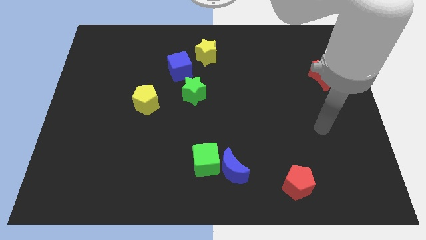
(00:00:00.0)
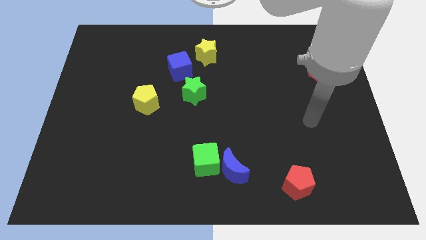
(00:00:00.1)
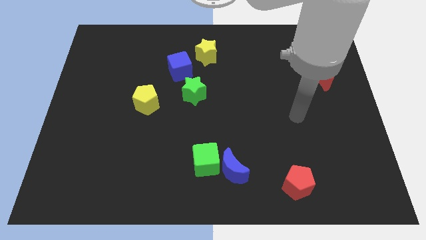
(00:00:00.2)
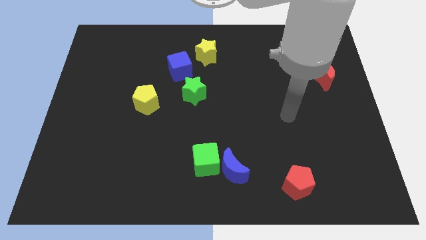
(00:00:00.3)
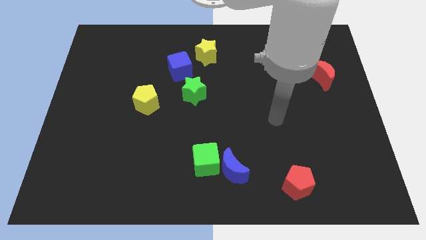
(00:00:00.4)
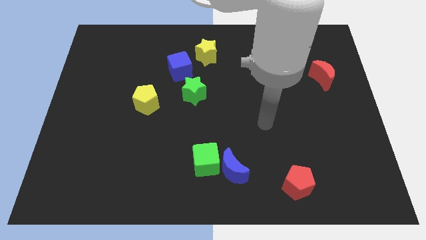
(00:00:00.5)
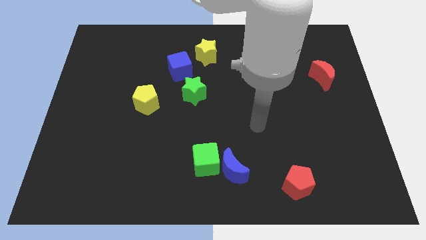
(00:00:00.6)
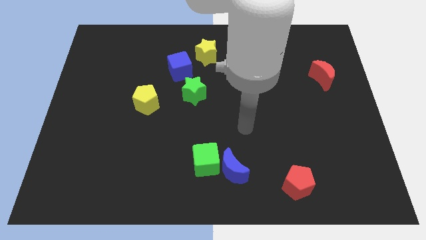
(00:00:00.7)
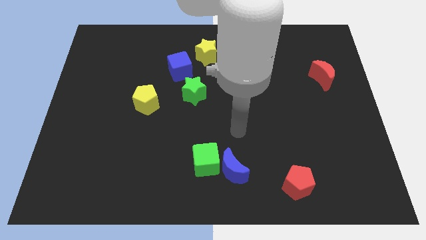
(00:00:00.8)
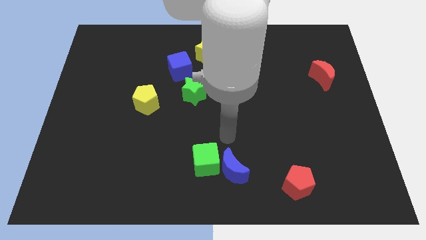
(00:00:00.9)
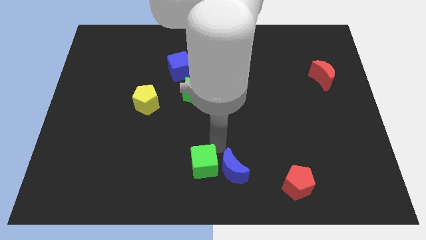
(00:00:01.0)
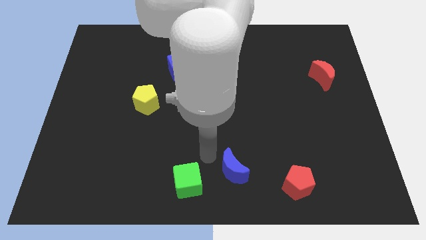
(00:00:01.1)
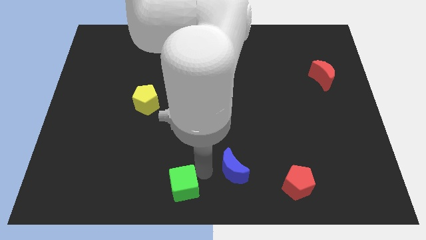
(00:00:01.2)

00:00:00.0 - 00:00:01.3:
separate the blue moon from the green cube

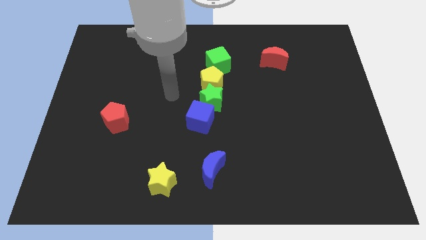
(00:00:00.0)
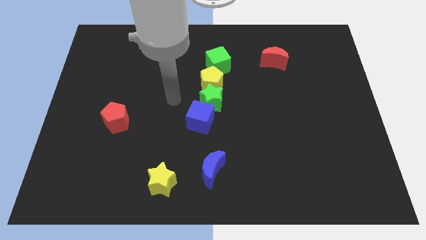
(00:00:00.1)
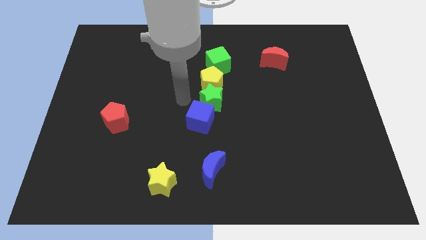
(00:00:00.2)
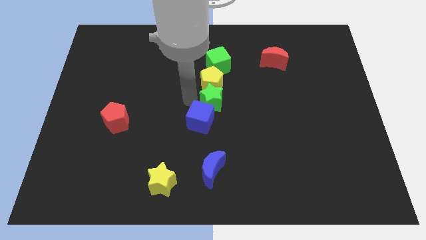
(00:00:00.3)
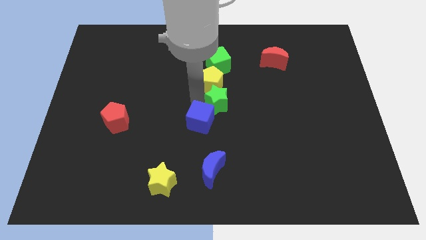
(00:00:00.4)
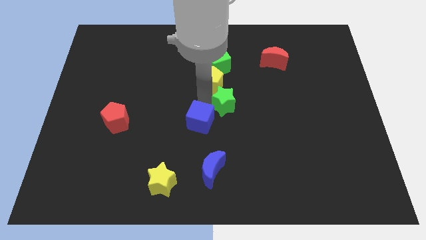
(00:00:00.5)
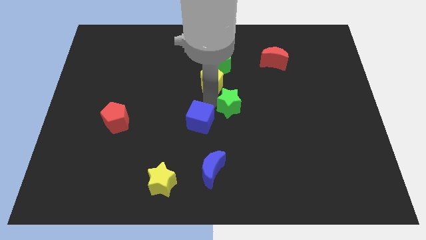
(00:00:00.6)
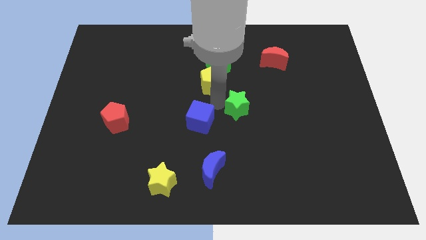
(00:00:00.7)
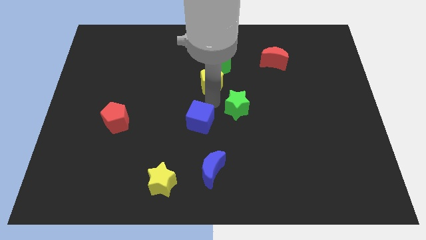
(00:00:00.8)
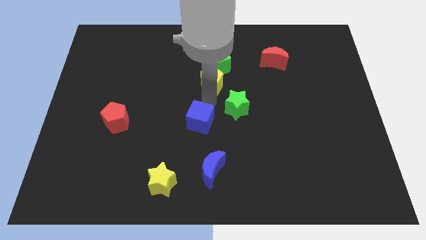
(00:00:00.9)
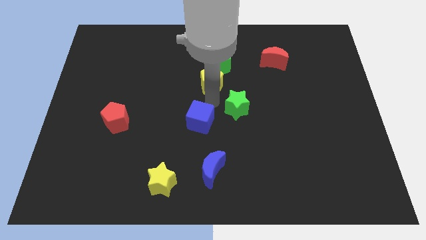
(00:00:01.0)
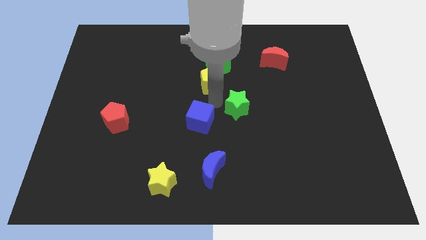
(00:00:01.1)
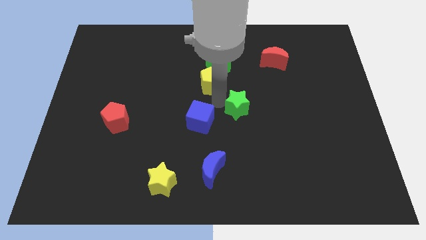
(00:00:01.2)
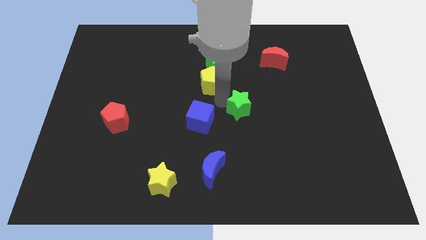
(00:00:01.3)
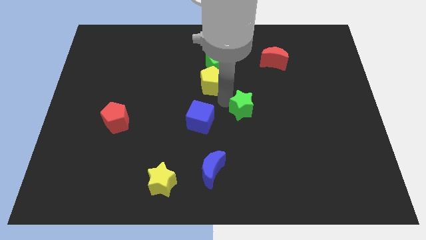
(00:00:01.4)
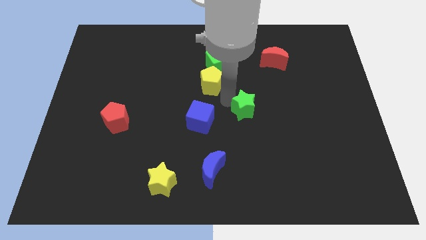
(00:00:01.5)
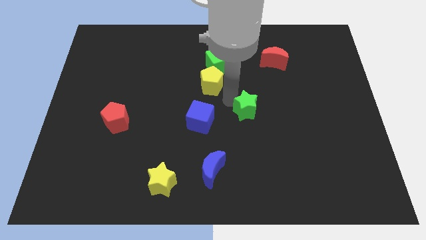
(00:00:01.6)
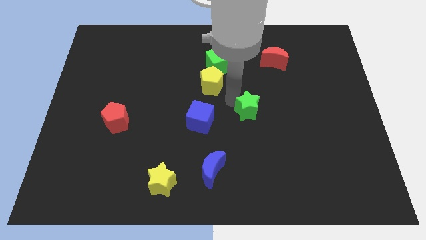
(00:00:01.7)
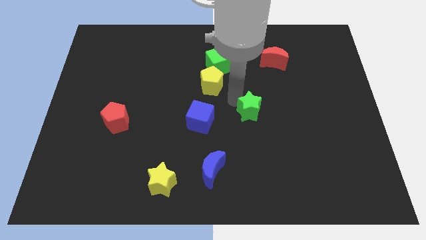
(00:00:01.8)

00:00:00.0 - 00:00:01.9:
pull the green star apart from the yellow pentagon and blue cube

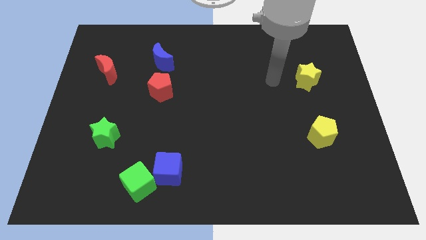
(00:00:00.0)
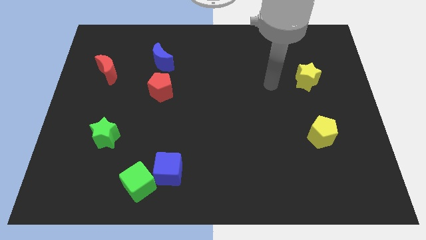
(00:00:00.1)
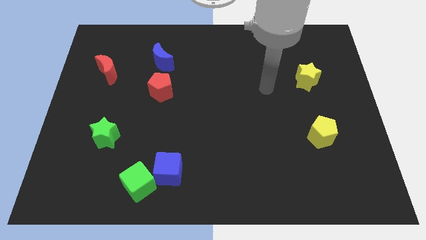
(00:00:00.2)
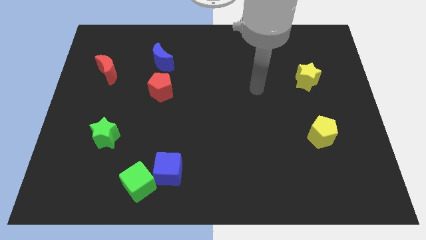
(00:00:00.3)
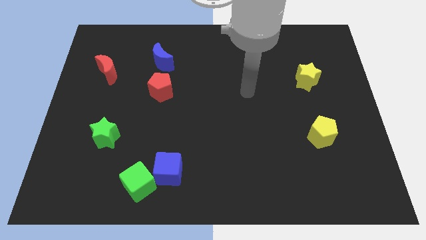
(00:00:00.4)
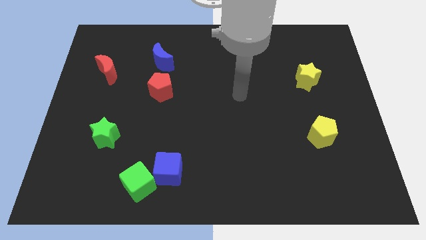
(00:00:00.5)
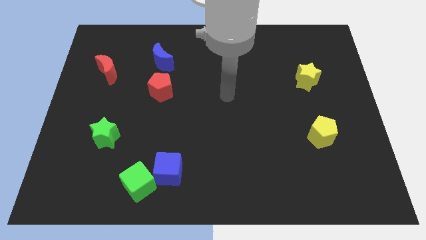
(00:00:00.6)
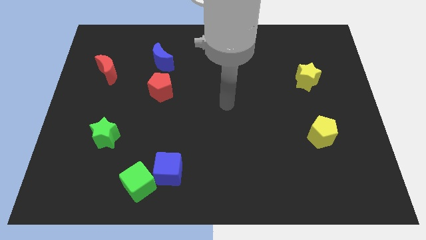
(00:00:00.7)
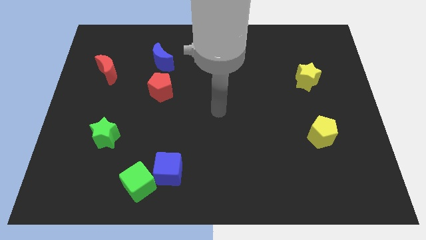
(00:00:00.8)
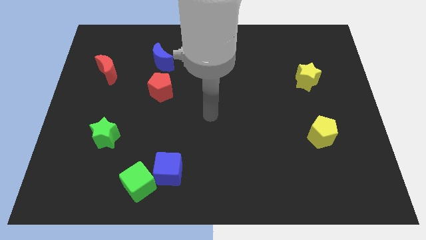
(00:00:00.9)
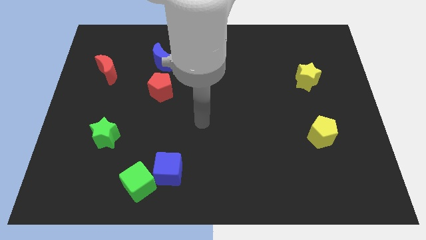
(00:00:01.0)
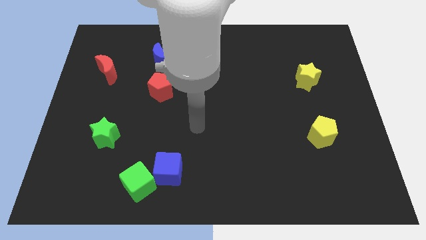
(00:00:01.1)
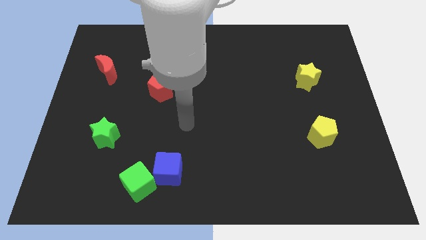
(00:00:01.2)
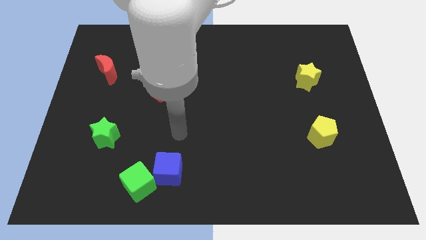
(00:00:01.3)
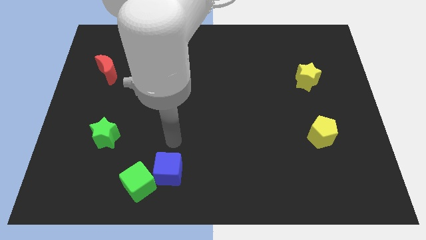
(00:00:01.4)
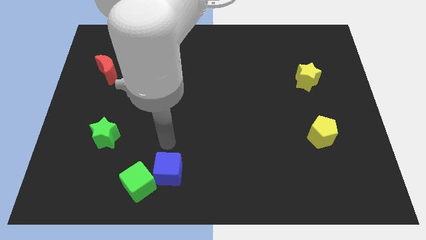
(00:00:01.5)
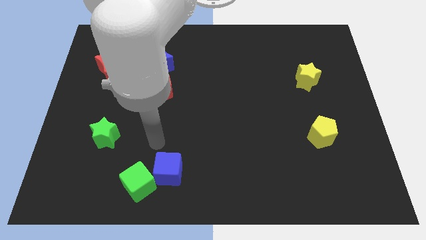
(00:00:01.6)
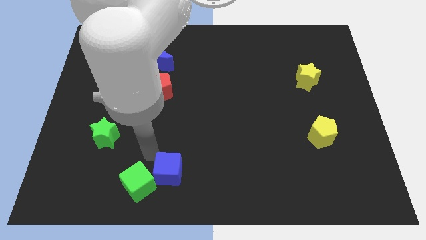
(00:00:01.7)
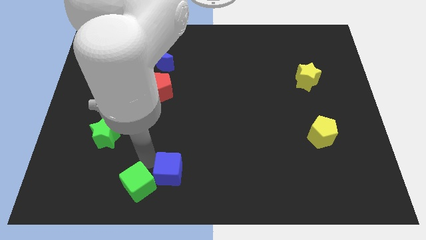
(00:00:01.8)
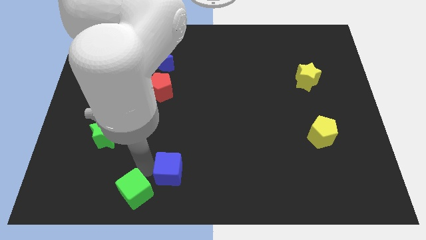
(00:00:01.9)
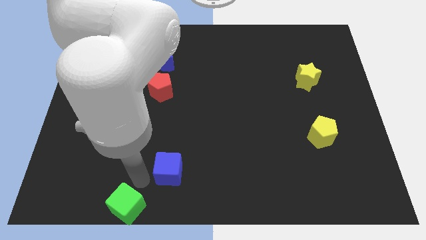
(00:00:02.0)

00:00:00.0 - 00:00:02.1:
pull the blue cube apart from the green cube

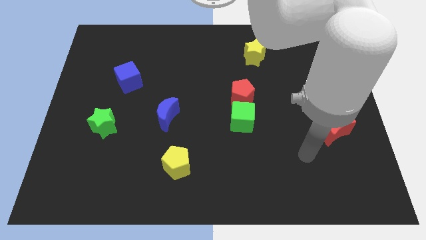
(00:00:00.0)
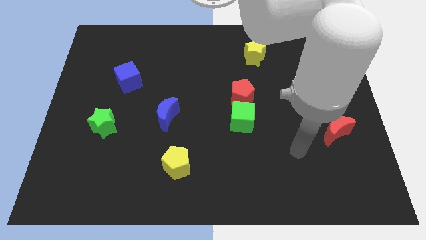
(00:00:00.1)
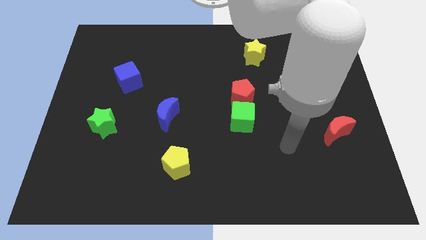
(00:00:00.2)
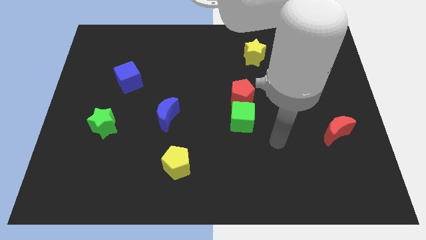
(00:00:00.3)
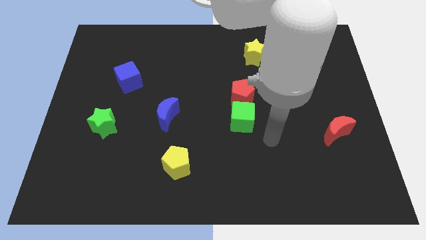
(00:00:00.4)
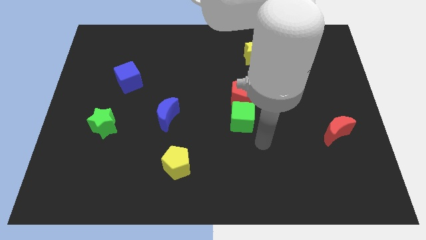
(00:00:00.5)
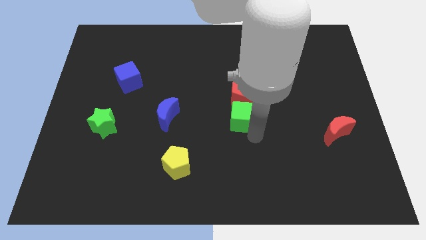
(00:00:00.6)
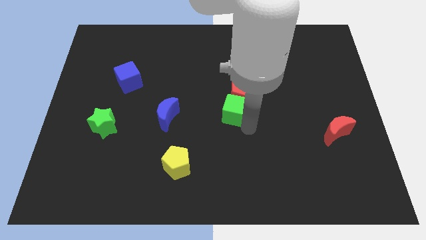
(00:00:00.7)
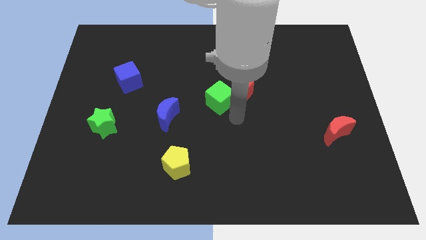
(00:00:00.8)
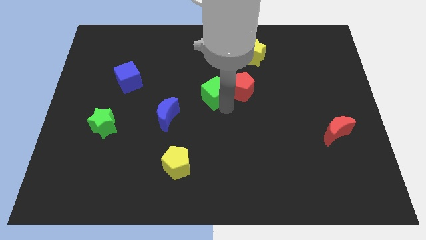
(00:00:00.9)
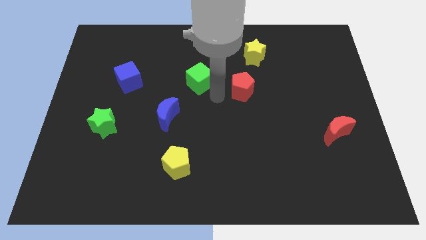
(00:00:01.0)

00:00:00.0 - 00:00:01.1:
move the red pentagon away from the green cube

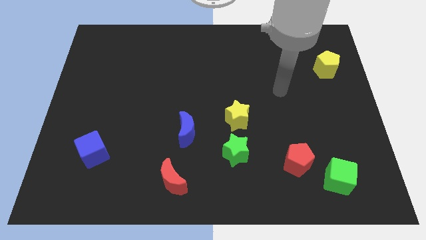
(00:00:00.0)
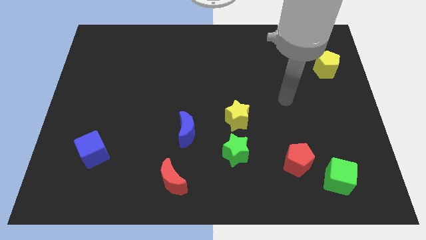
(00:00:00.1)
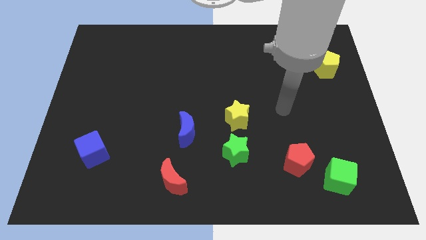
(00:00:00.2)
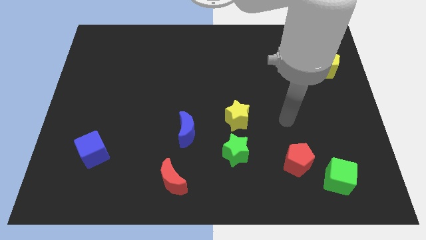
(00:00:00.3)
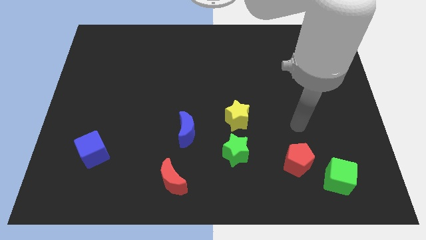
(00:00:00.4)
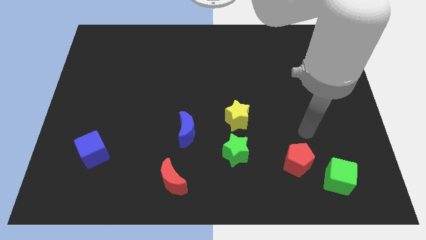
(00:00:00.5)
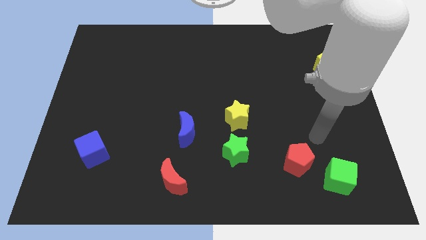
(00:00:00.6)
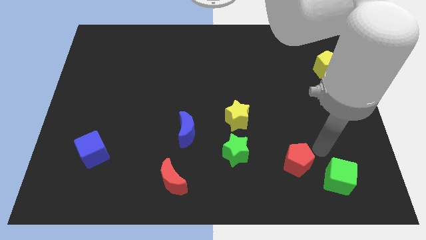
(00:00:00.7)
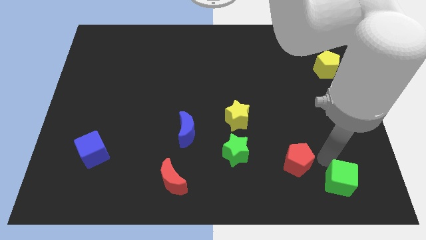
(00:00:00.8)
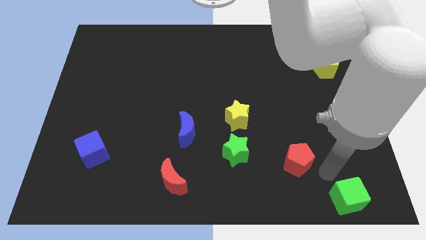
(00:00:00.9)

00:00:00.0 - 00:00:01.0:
separate the red pentagon from the green cube

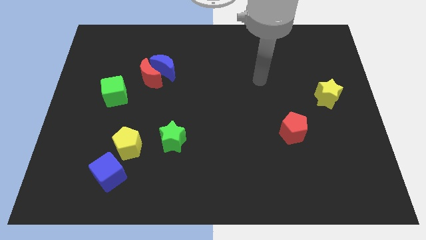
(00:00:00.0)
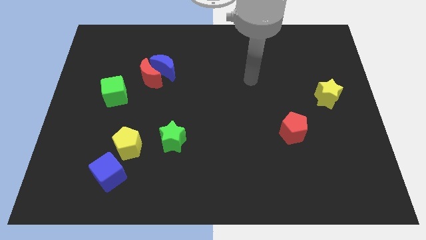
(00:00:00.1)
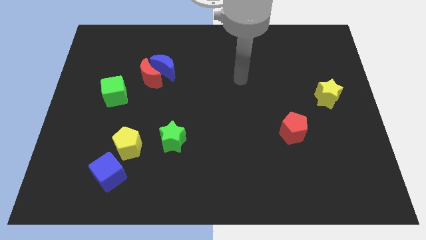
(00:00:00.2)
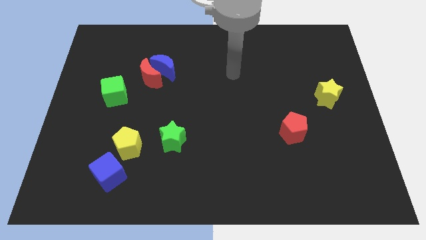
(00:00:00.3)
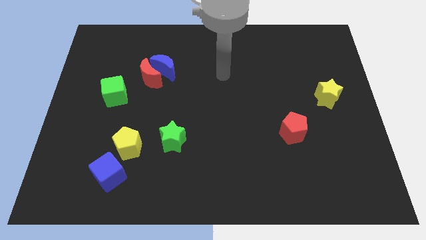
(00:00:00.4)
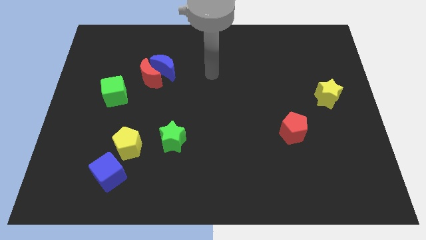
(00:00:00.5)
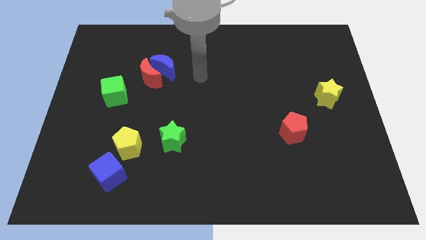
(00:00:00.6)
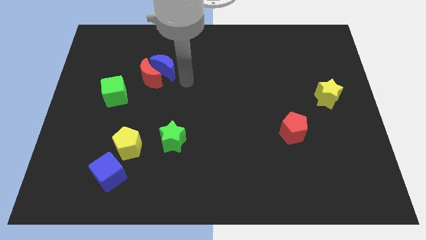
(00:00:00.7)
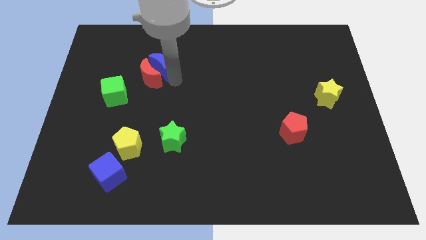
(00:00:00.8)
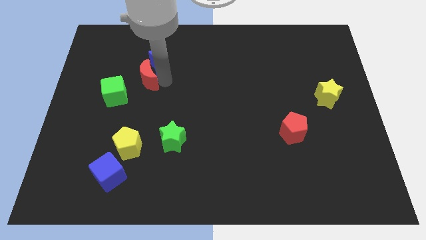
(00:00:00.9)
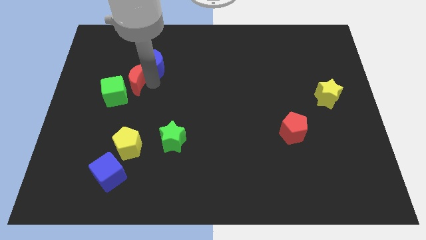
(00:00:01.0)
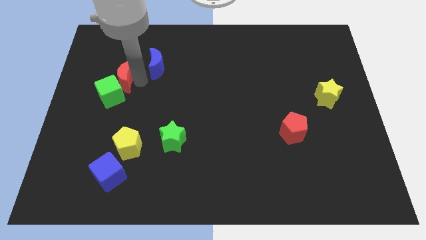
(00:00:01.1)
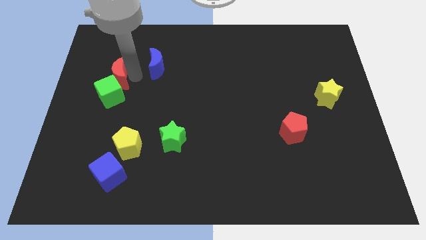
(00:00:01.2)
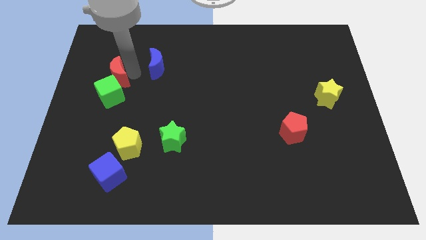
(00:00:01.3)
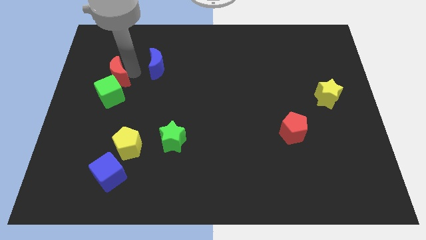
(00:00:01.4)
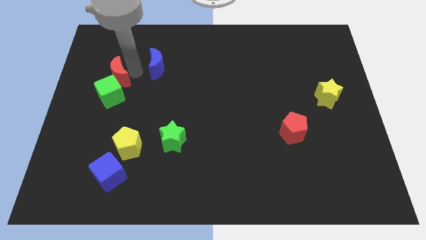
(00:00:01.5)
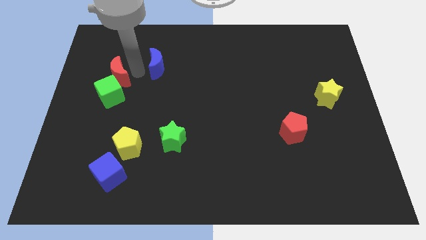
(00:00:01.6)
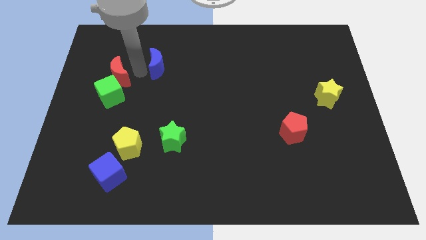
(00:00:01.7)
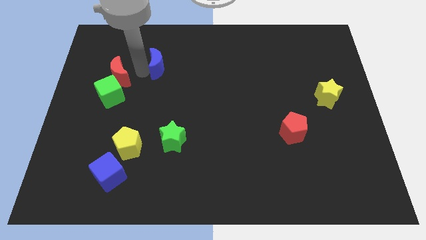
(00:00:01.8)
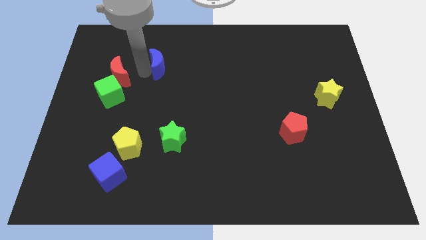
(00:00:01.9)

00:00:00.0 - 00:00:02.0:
pull the blue moon apart from the red moon
